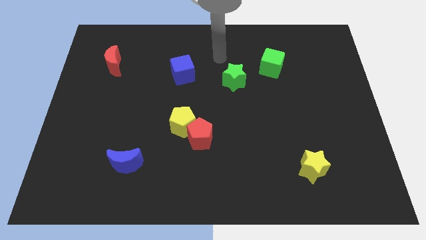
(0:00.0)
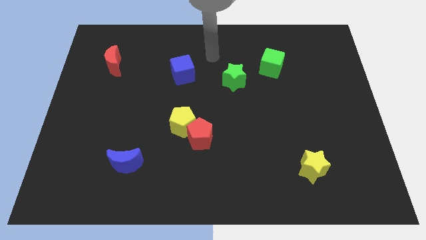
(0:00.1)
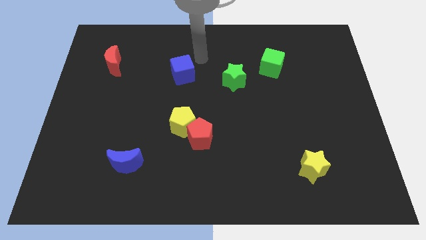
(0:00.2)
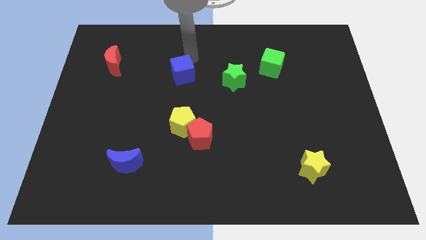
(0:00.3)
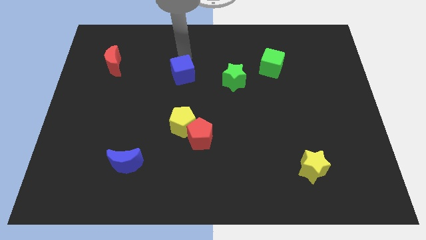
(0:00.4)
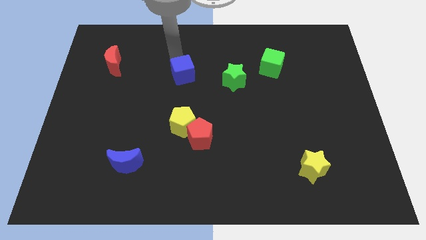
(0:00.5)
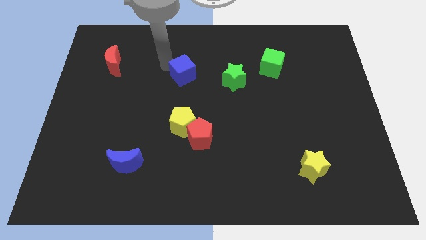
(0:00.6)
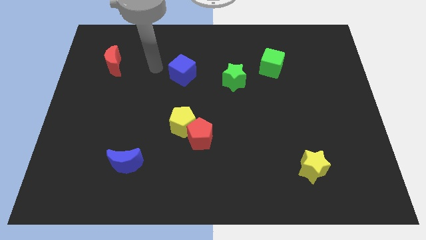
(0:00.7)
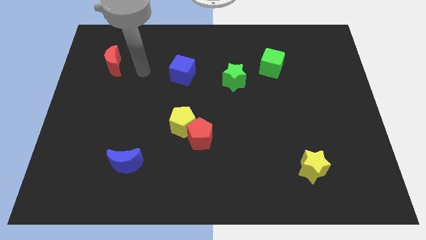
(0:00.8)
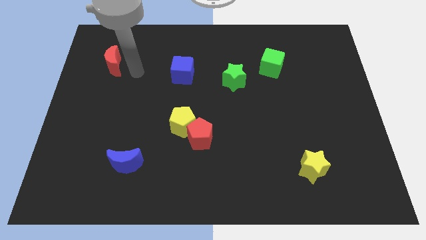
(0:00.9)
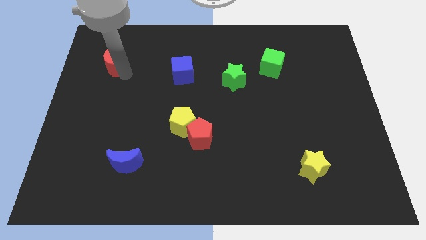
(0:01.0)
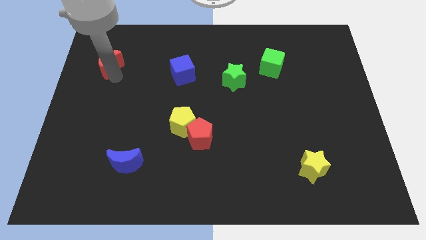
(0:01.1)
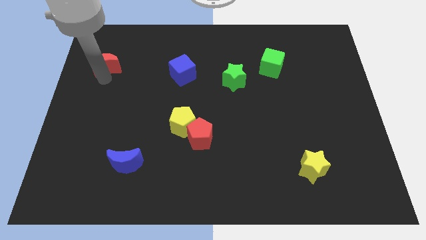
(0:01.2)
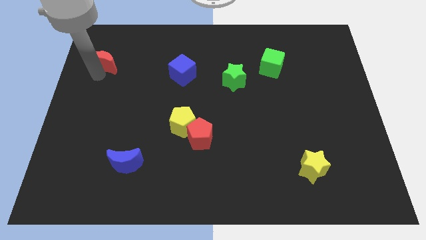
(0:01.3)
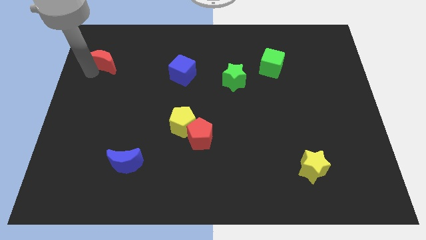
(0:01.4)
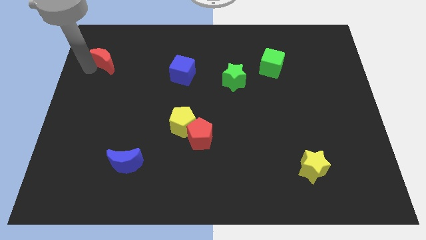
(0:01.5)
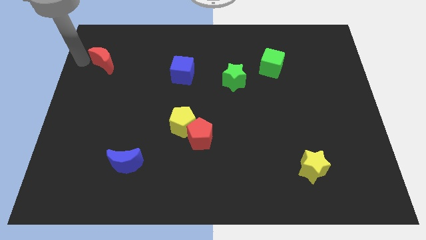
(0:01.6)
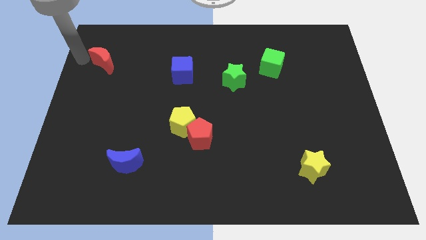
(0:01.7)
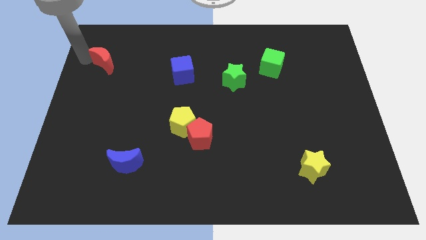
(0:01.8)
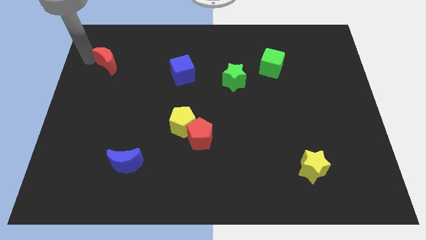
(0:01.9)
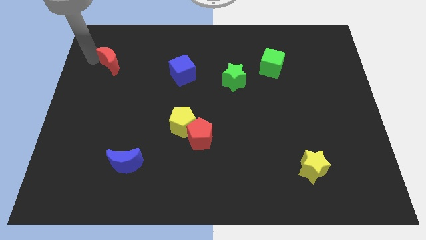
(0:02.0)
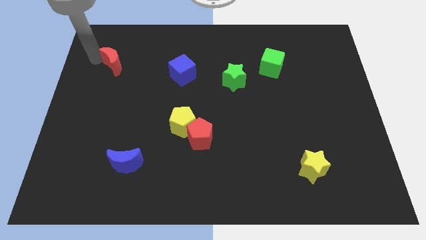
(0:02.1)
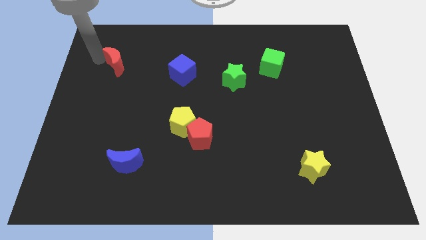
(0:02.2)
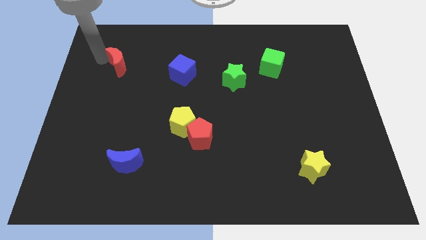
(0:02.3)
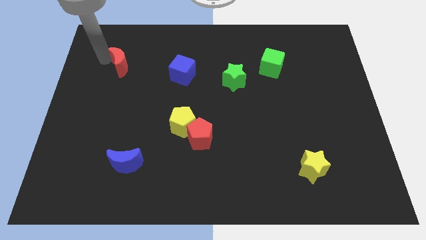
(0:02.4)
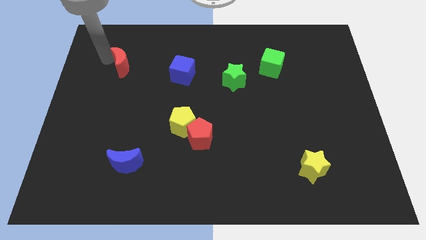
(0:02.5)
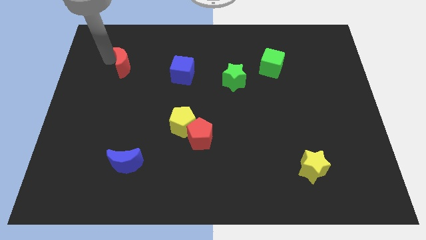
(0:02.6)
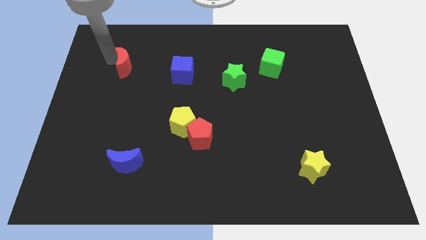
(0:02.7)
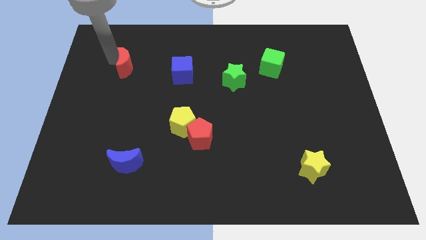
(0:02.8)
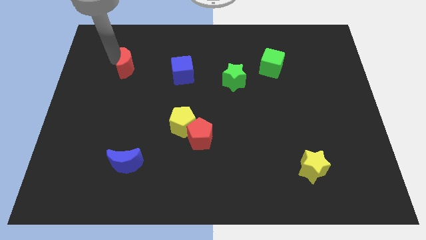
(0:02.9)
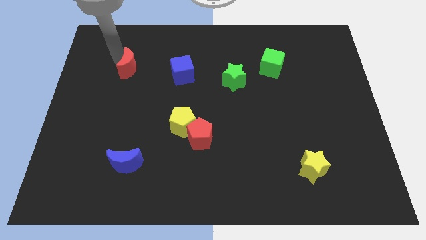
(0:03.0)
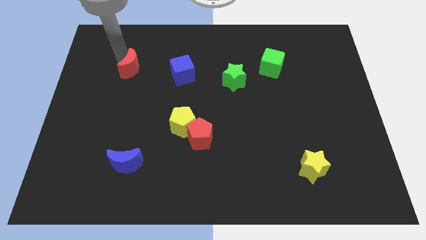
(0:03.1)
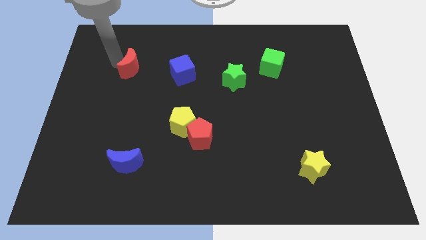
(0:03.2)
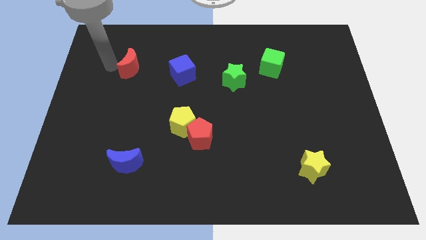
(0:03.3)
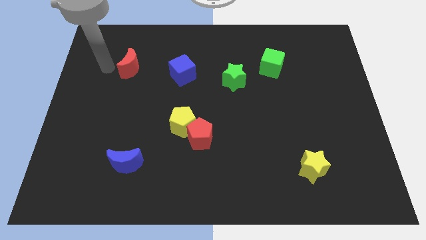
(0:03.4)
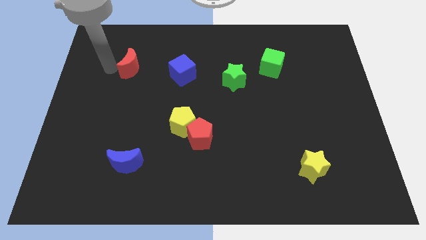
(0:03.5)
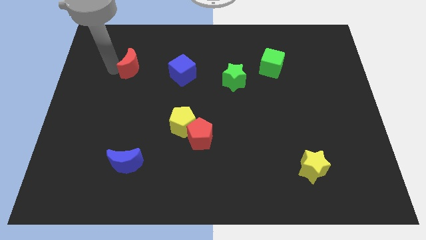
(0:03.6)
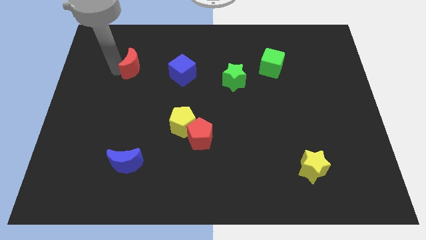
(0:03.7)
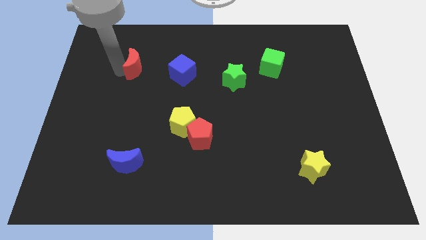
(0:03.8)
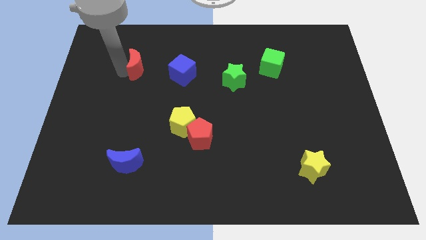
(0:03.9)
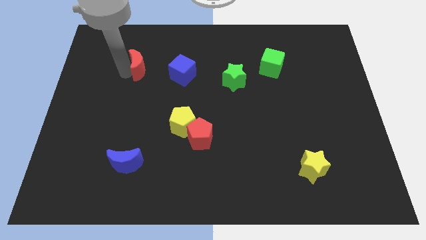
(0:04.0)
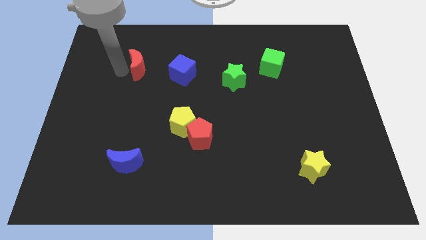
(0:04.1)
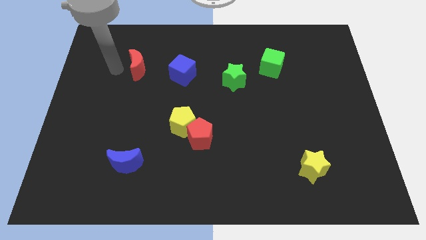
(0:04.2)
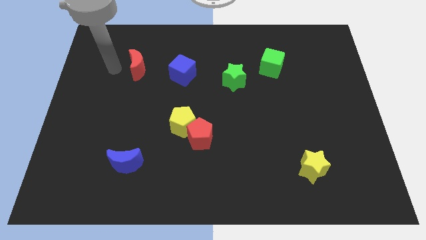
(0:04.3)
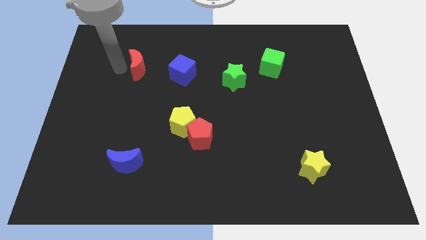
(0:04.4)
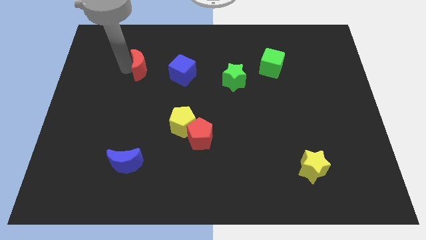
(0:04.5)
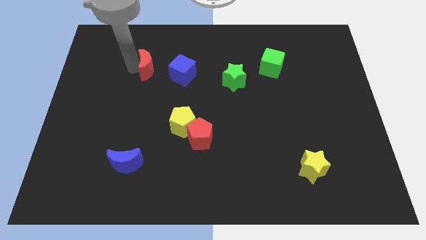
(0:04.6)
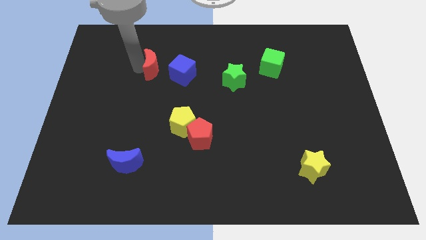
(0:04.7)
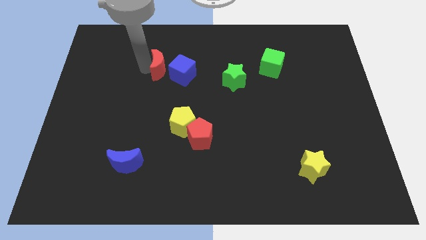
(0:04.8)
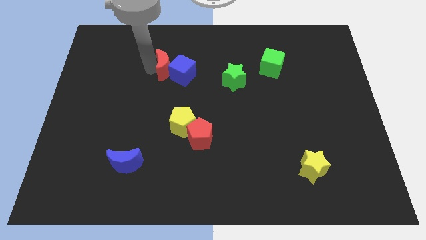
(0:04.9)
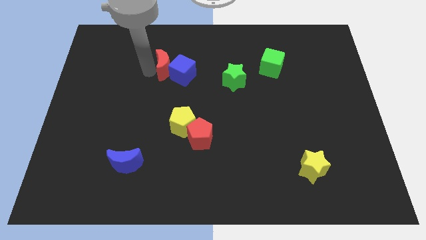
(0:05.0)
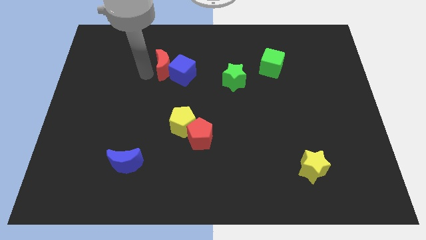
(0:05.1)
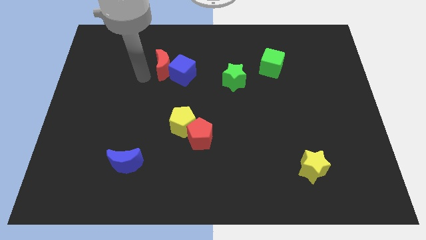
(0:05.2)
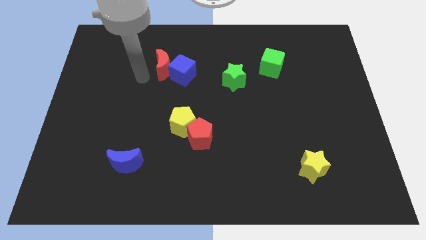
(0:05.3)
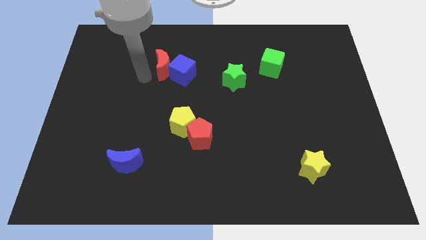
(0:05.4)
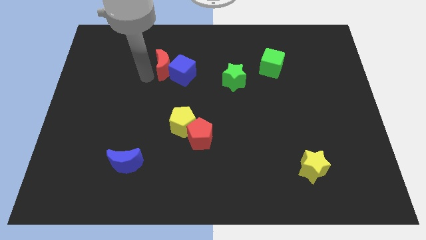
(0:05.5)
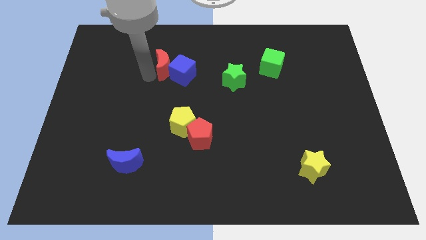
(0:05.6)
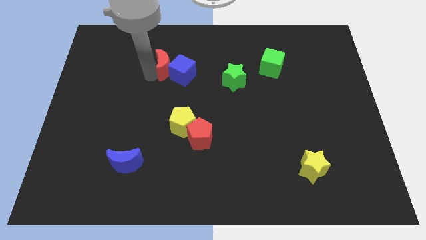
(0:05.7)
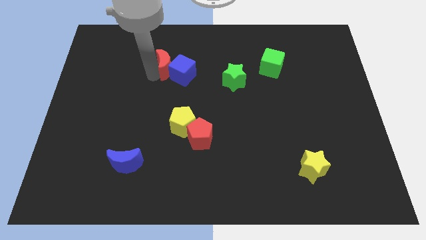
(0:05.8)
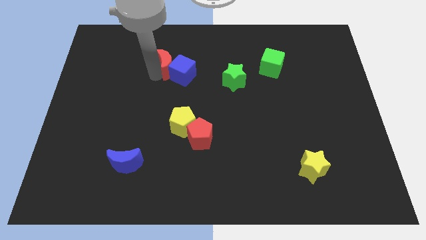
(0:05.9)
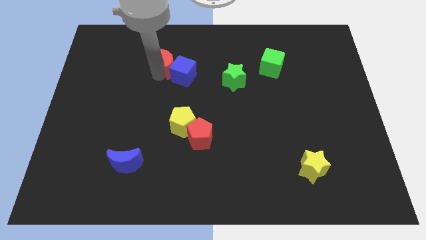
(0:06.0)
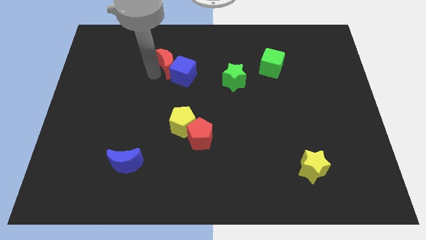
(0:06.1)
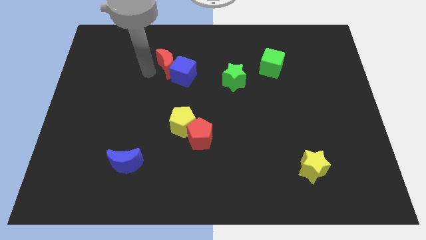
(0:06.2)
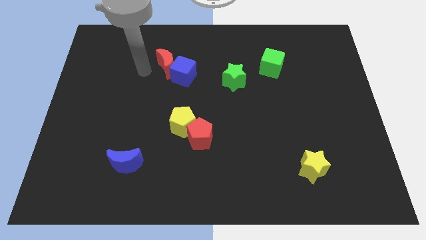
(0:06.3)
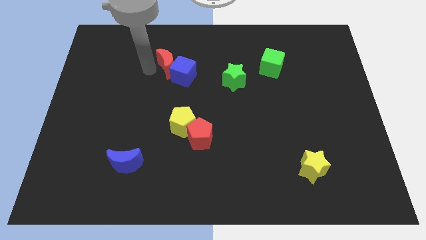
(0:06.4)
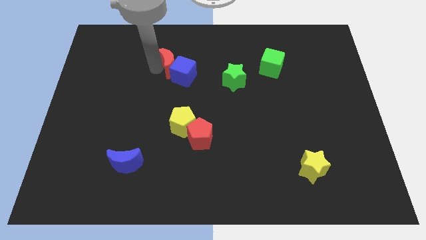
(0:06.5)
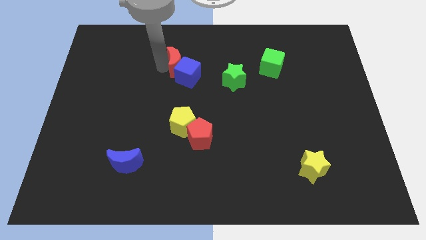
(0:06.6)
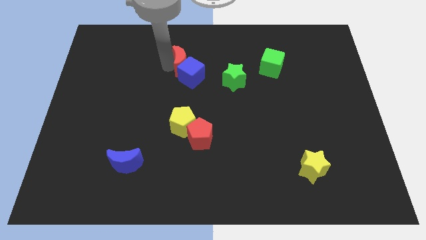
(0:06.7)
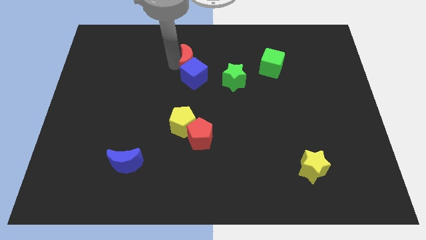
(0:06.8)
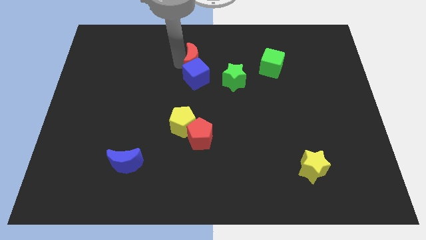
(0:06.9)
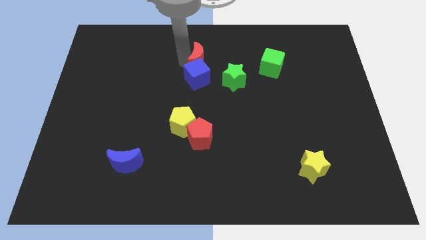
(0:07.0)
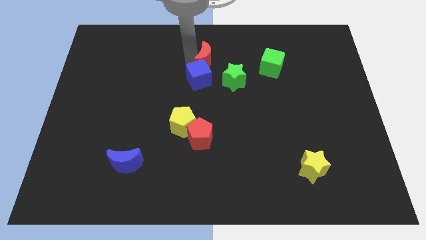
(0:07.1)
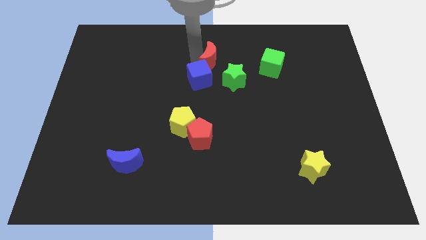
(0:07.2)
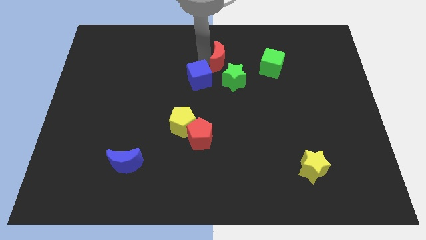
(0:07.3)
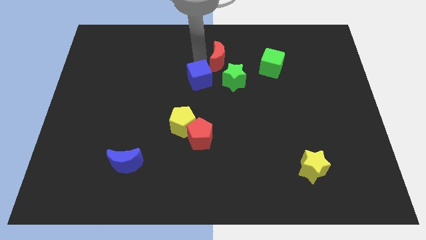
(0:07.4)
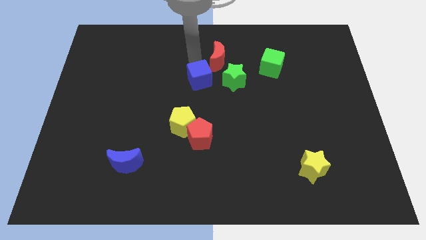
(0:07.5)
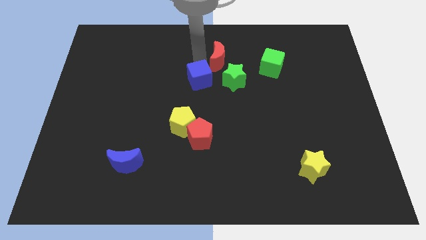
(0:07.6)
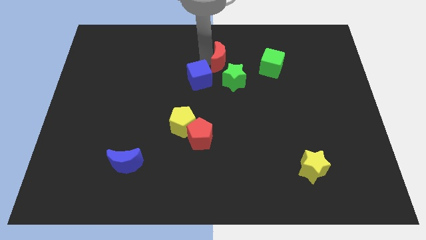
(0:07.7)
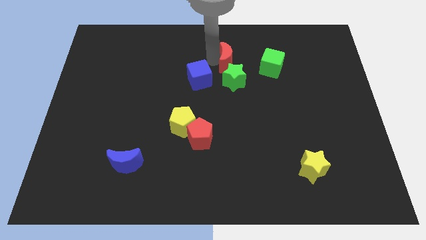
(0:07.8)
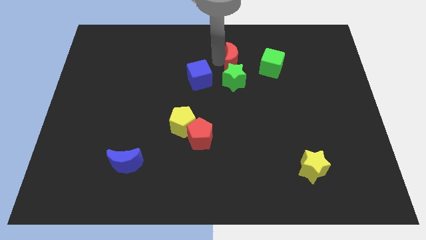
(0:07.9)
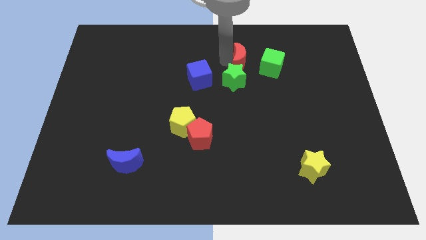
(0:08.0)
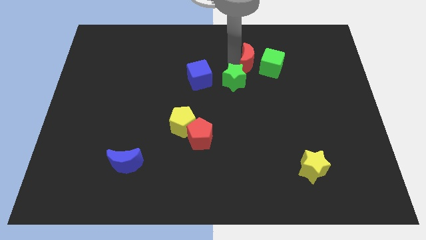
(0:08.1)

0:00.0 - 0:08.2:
put the red moon to the green cube
